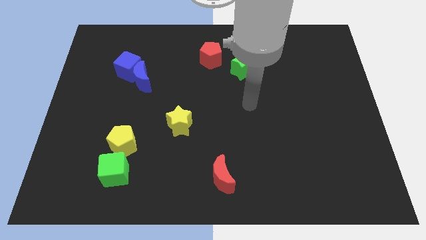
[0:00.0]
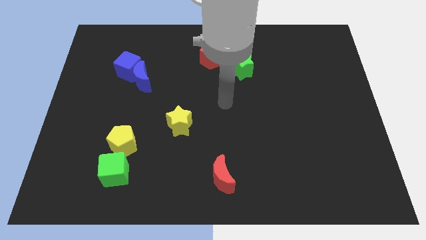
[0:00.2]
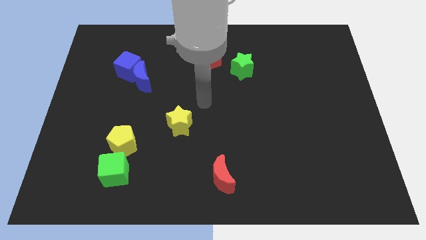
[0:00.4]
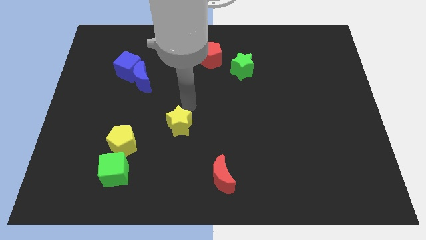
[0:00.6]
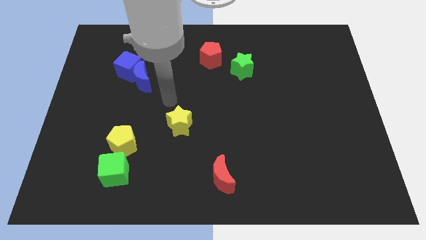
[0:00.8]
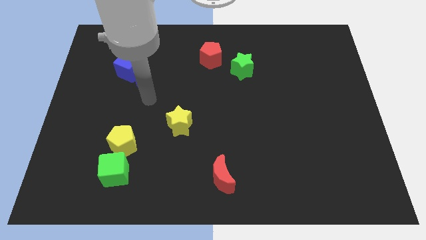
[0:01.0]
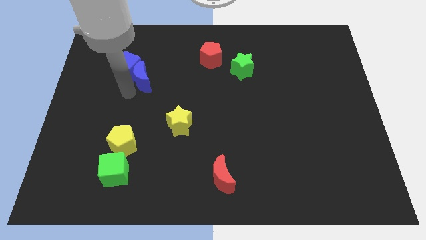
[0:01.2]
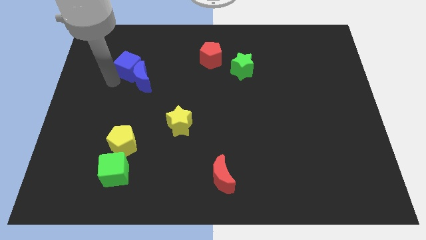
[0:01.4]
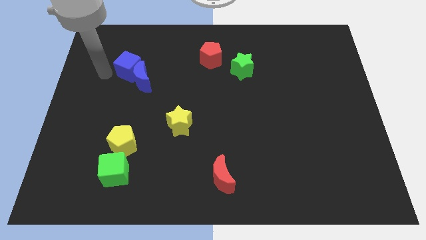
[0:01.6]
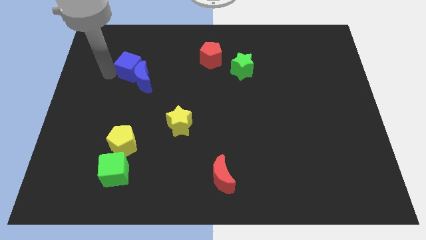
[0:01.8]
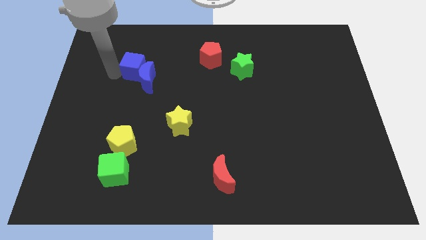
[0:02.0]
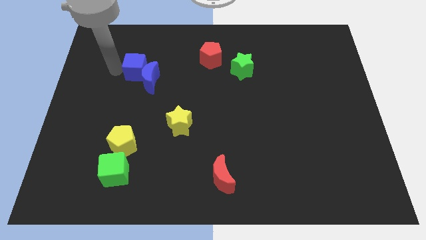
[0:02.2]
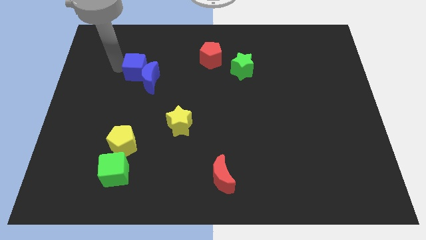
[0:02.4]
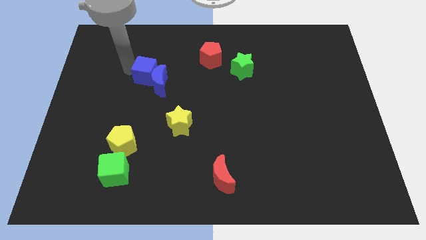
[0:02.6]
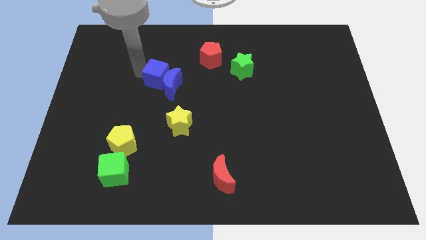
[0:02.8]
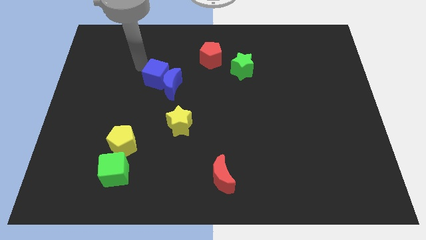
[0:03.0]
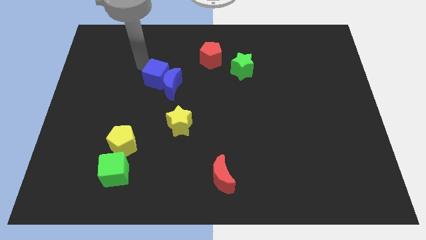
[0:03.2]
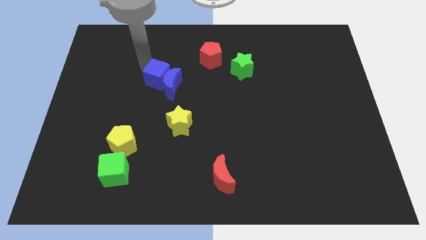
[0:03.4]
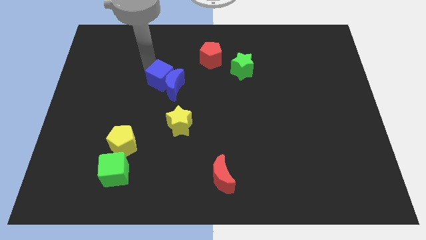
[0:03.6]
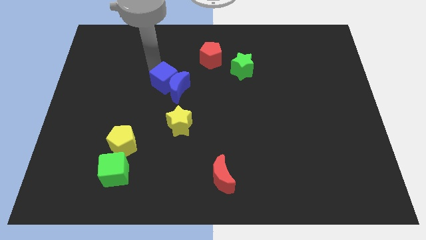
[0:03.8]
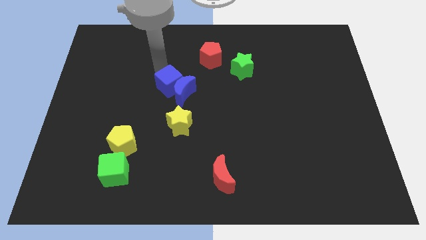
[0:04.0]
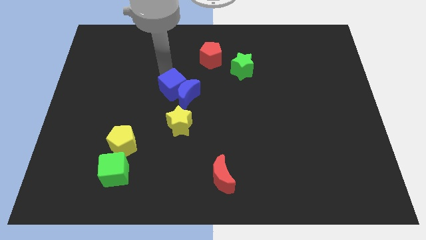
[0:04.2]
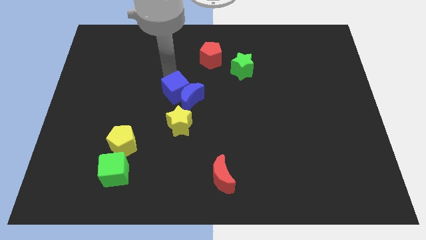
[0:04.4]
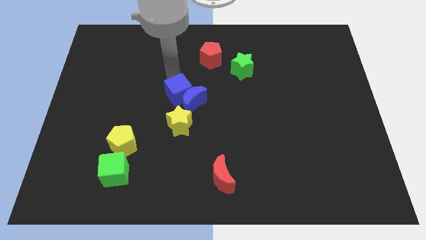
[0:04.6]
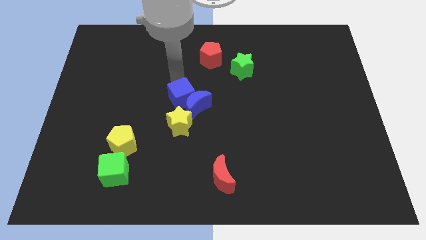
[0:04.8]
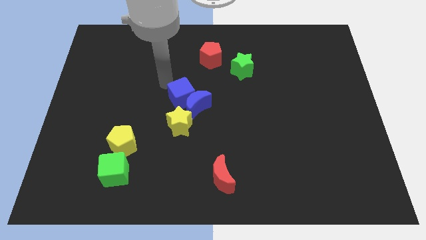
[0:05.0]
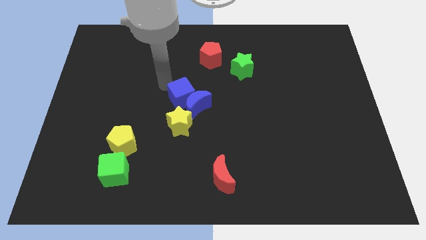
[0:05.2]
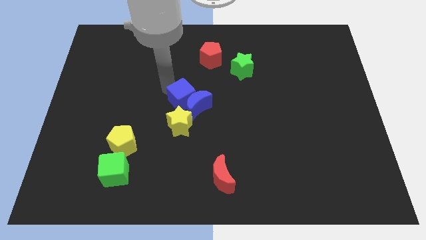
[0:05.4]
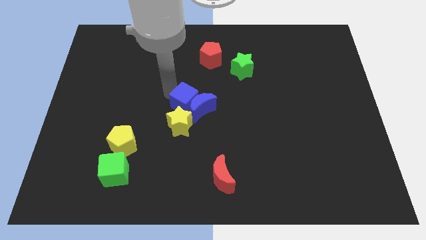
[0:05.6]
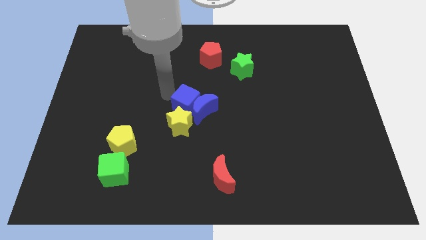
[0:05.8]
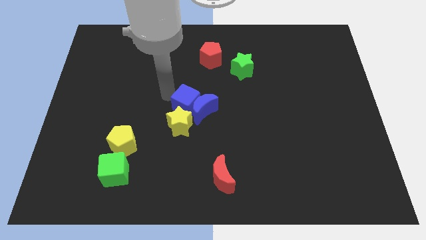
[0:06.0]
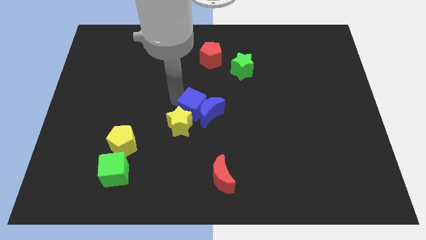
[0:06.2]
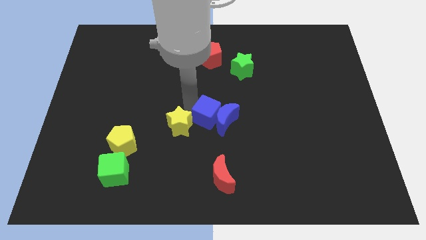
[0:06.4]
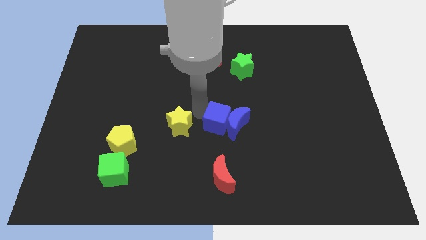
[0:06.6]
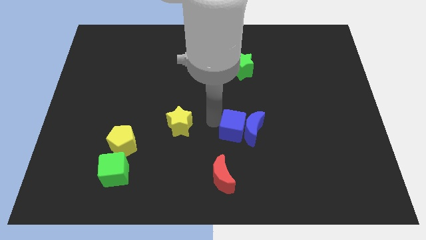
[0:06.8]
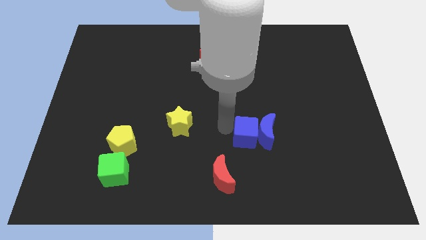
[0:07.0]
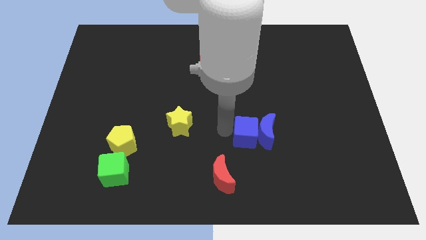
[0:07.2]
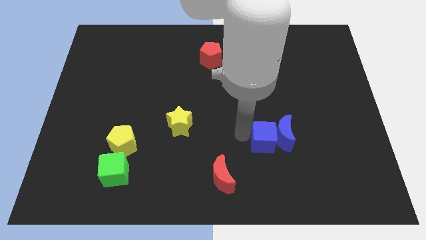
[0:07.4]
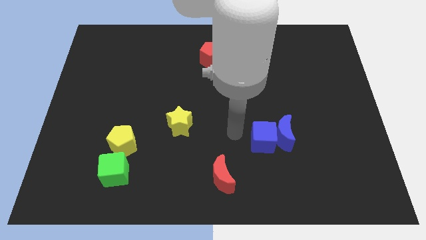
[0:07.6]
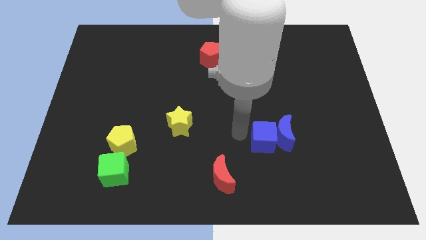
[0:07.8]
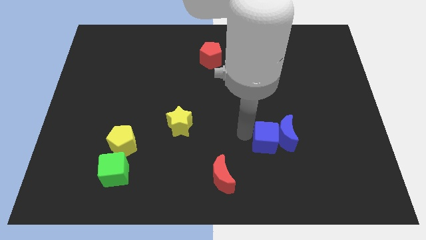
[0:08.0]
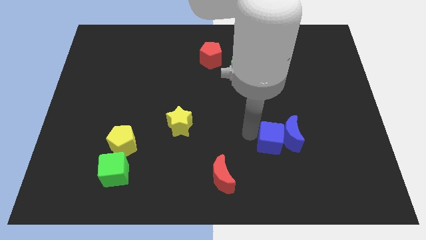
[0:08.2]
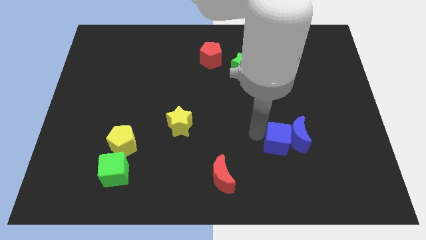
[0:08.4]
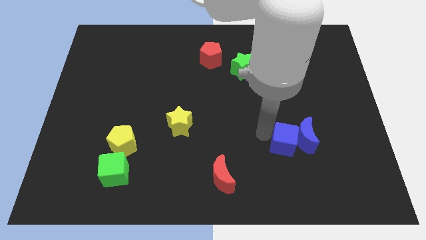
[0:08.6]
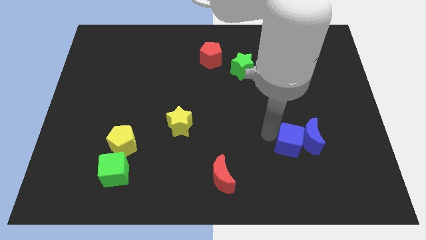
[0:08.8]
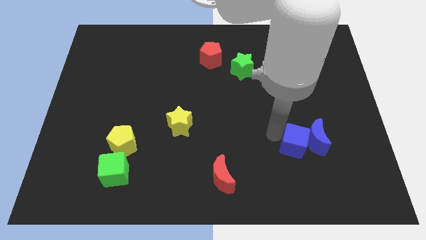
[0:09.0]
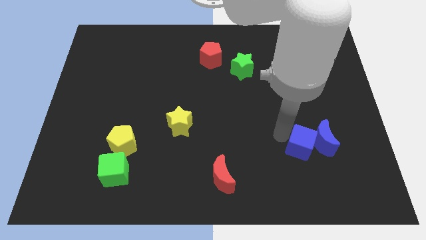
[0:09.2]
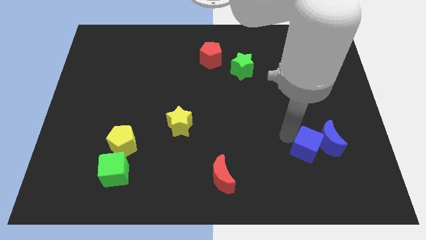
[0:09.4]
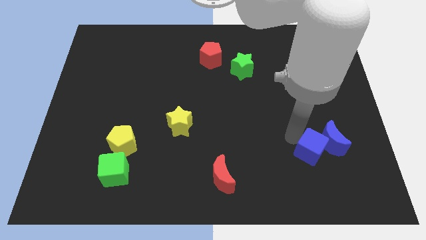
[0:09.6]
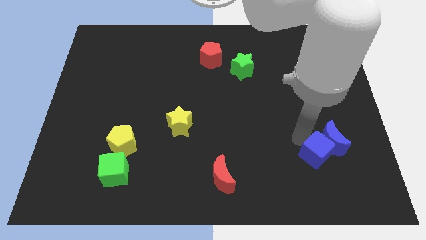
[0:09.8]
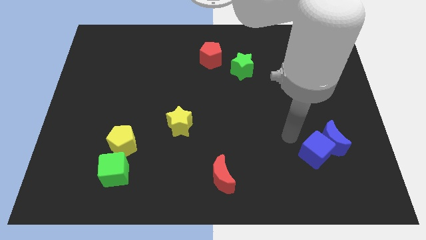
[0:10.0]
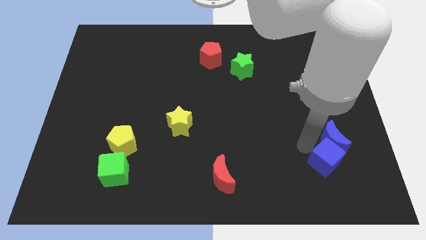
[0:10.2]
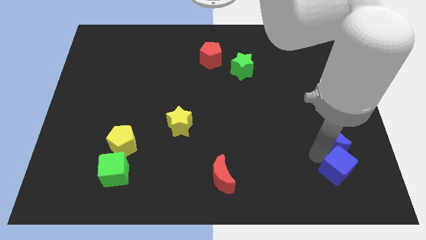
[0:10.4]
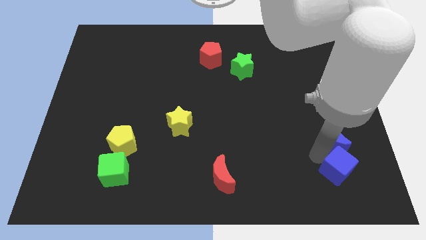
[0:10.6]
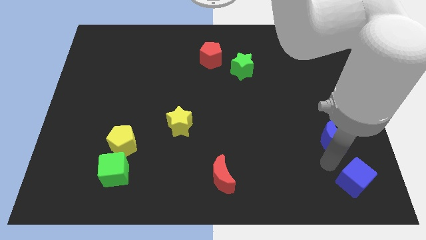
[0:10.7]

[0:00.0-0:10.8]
push the blue cube to the bottom right of the board
